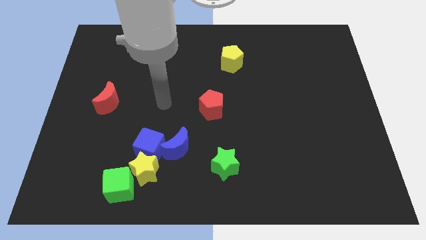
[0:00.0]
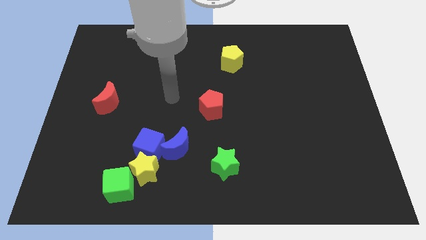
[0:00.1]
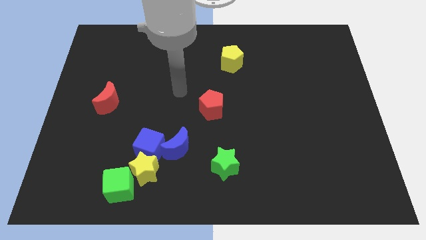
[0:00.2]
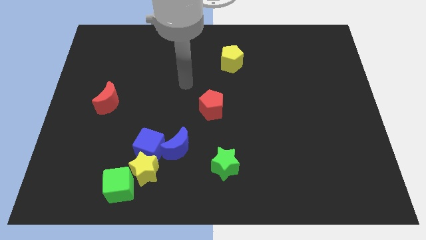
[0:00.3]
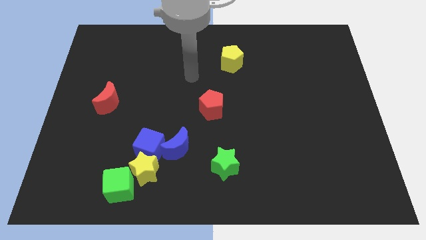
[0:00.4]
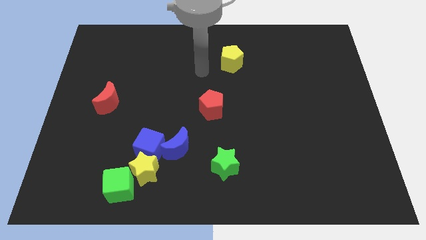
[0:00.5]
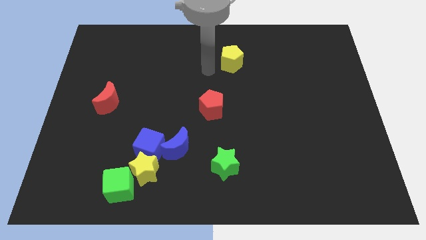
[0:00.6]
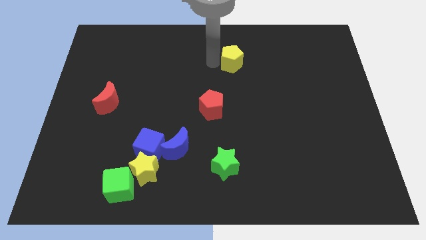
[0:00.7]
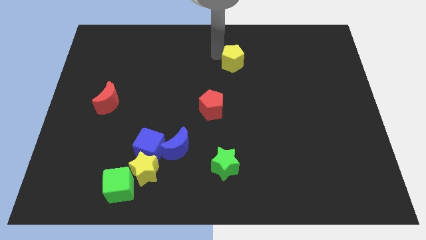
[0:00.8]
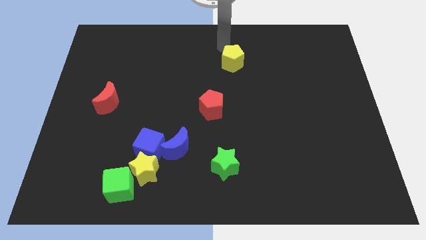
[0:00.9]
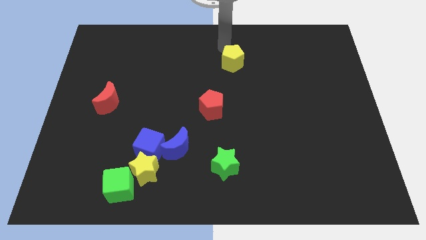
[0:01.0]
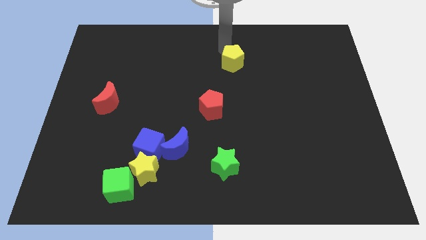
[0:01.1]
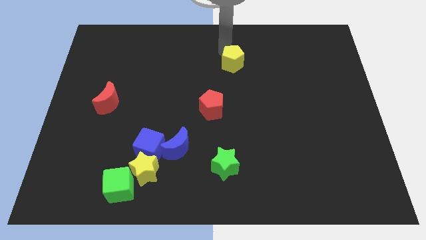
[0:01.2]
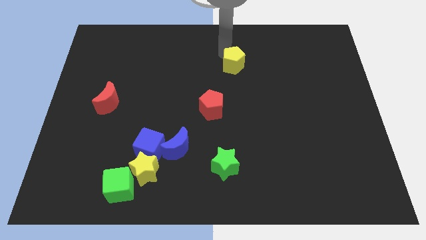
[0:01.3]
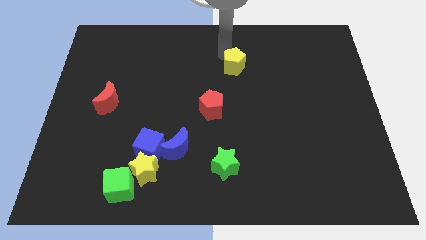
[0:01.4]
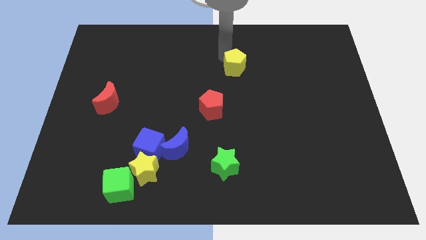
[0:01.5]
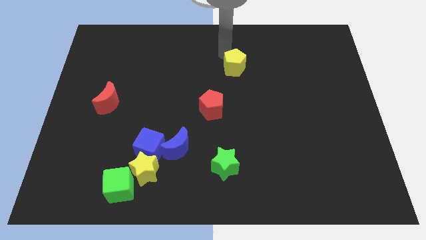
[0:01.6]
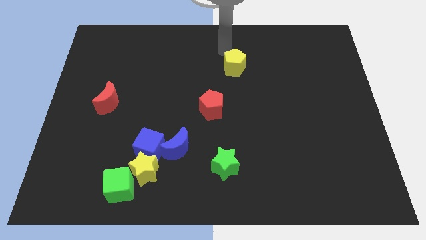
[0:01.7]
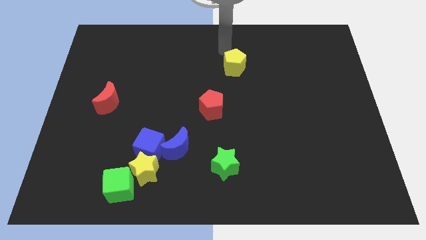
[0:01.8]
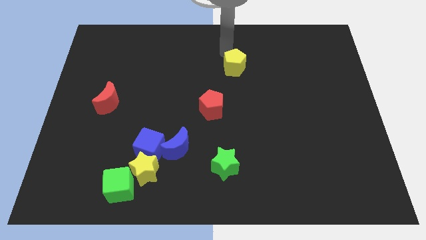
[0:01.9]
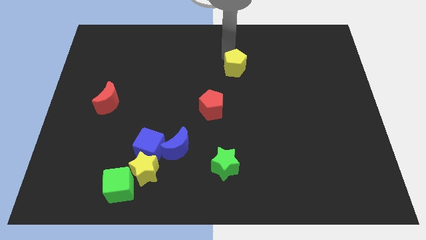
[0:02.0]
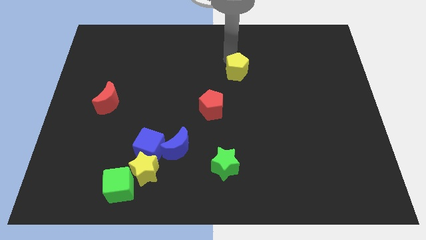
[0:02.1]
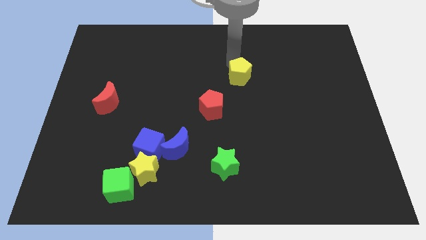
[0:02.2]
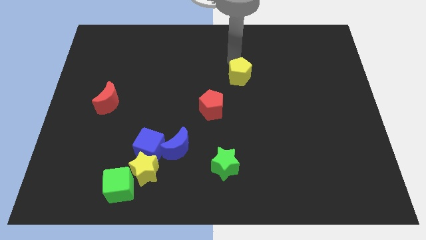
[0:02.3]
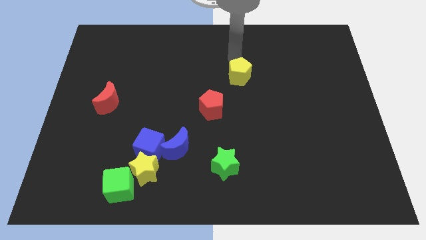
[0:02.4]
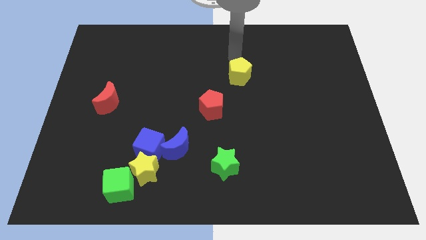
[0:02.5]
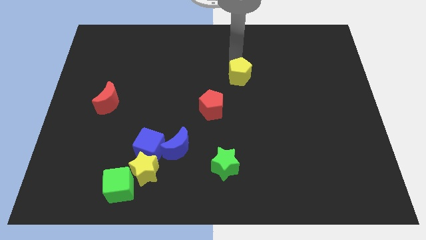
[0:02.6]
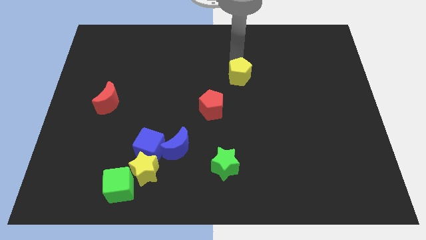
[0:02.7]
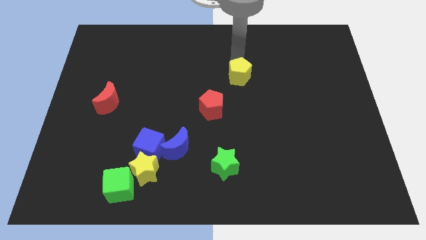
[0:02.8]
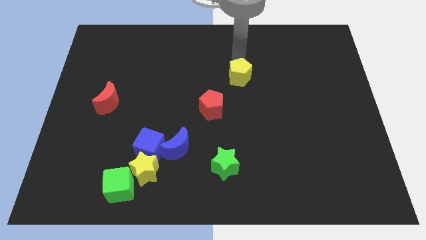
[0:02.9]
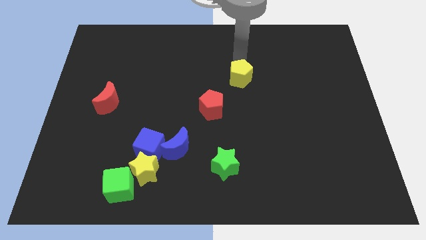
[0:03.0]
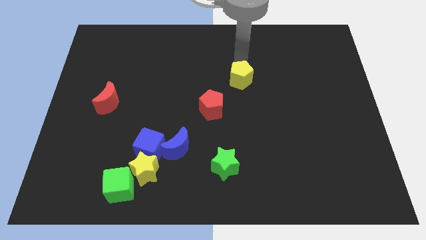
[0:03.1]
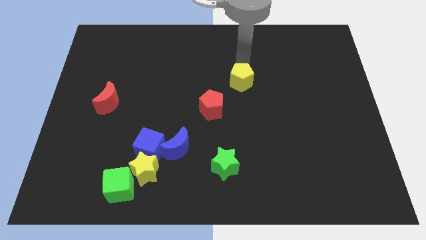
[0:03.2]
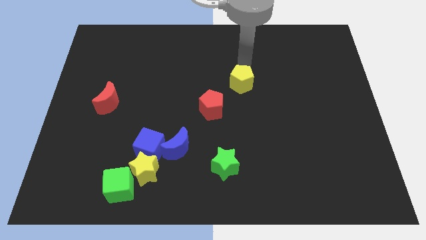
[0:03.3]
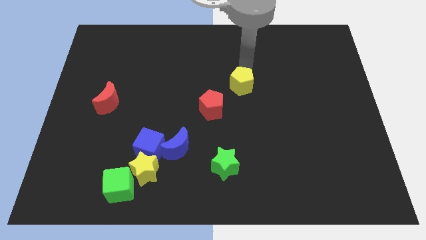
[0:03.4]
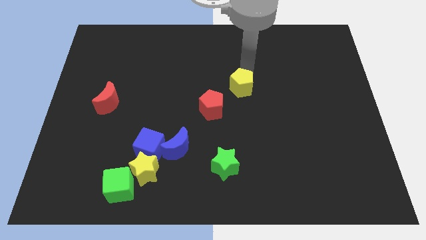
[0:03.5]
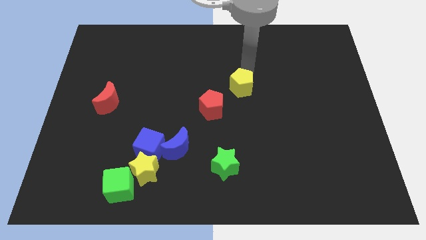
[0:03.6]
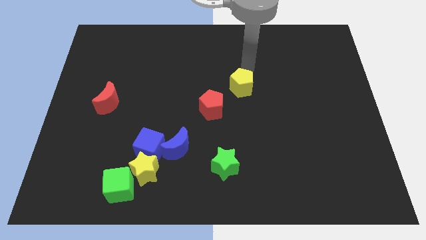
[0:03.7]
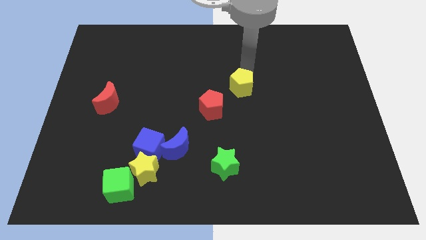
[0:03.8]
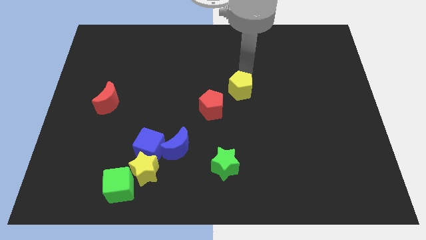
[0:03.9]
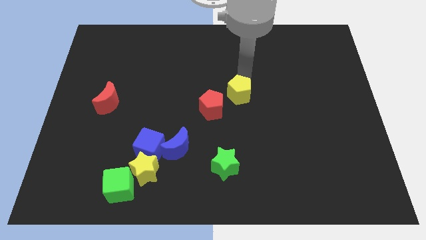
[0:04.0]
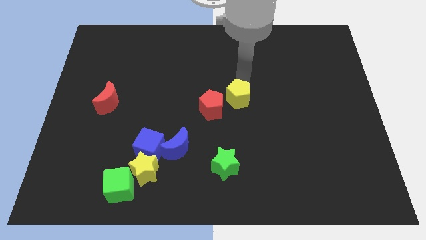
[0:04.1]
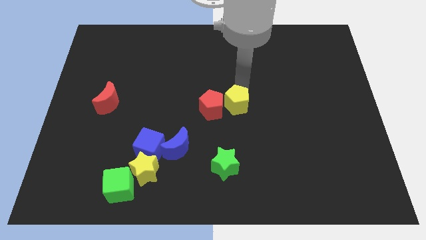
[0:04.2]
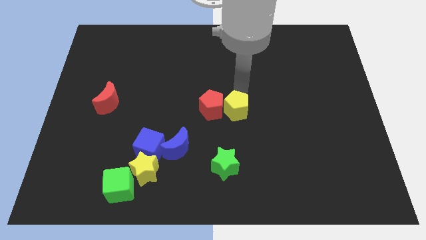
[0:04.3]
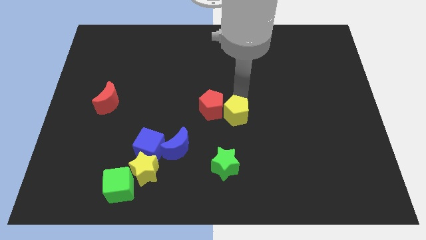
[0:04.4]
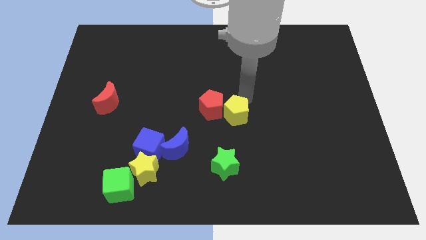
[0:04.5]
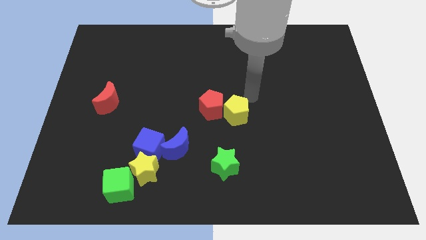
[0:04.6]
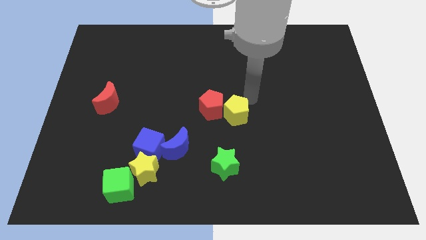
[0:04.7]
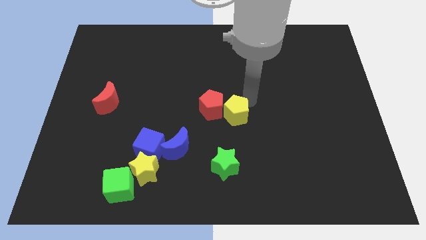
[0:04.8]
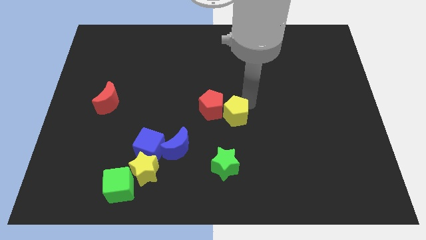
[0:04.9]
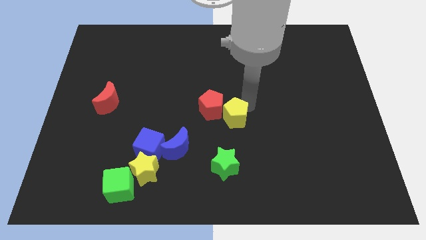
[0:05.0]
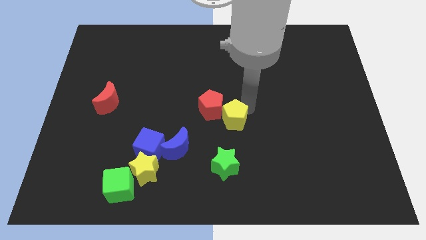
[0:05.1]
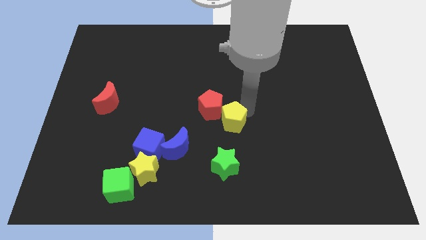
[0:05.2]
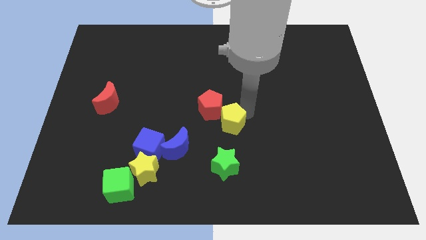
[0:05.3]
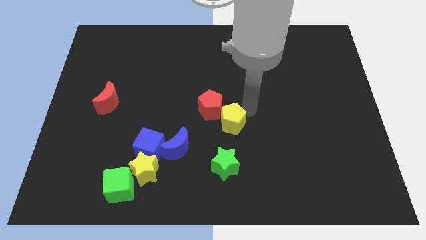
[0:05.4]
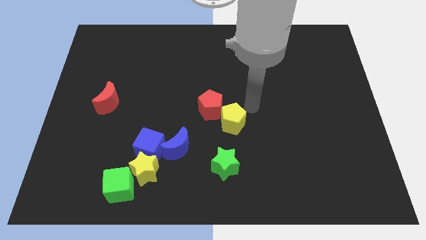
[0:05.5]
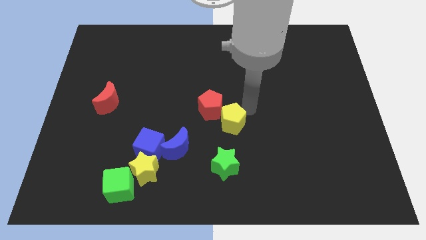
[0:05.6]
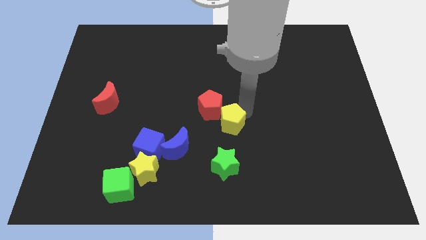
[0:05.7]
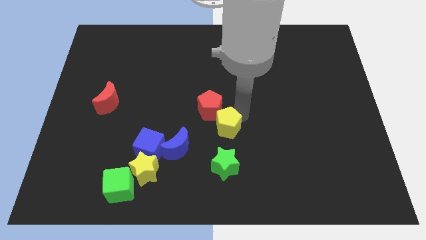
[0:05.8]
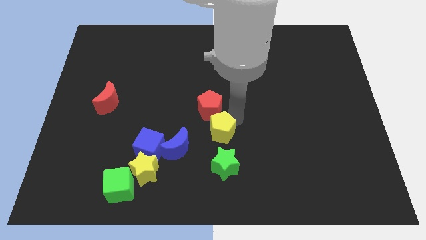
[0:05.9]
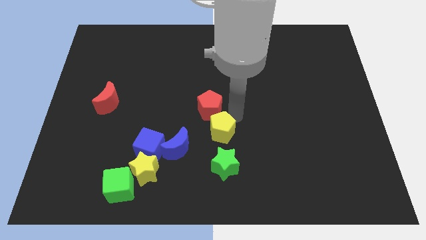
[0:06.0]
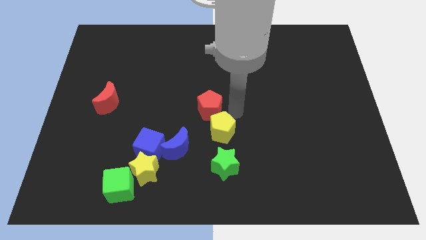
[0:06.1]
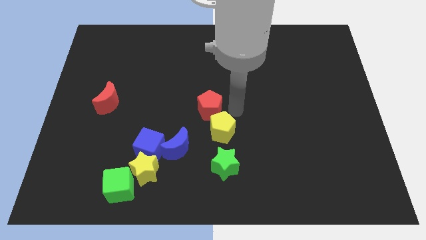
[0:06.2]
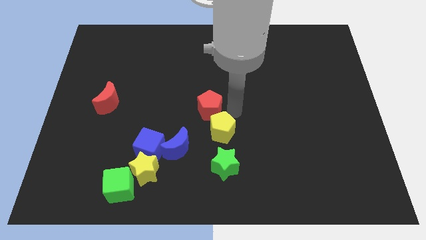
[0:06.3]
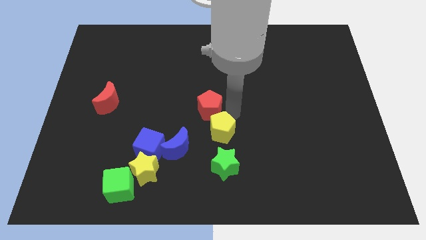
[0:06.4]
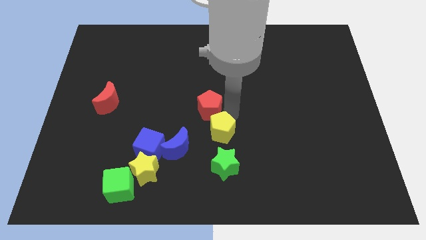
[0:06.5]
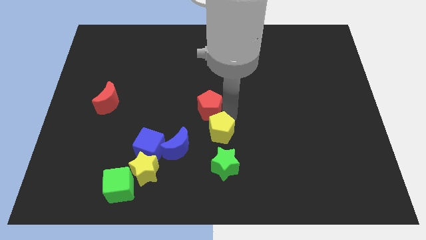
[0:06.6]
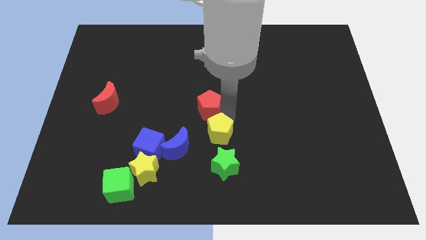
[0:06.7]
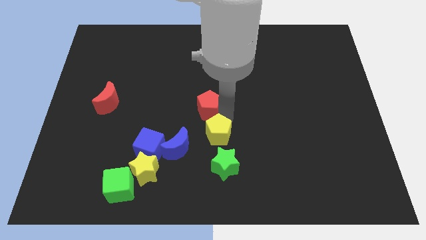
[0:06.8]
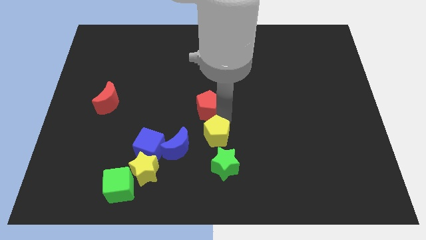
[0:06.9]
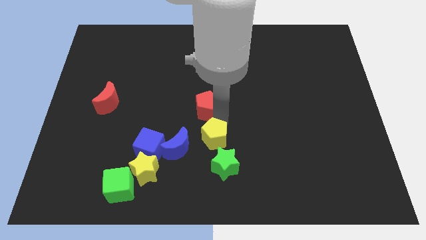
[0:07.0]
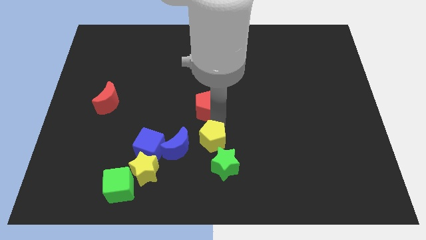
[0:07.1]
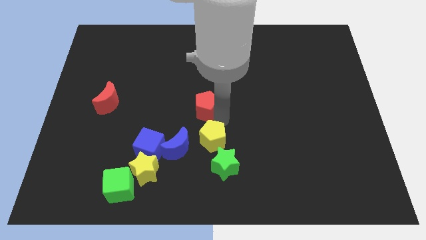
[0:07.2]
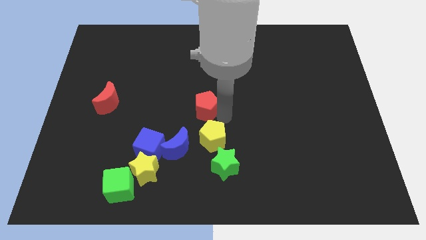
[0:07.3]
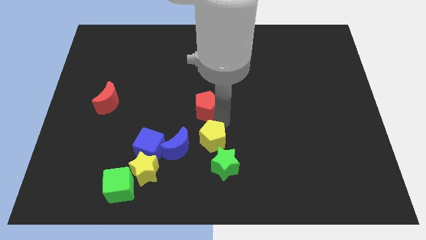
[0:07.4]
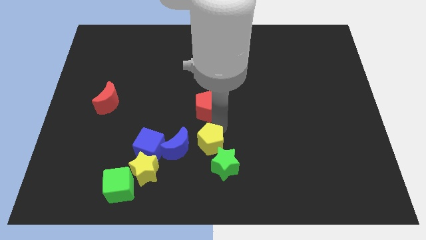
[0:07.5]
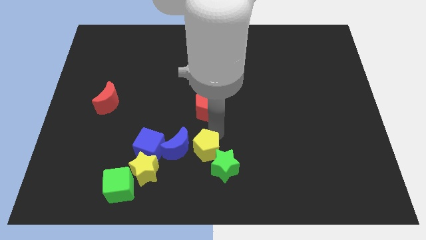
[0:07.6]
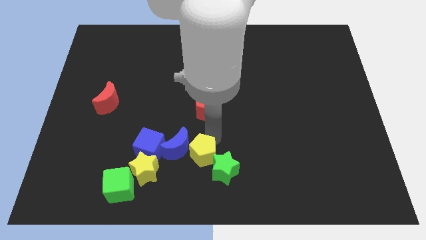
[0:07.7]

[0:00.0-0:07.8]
push the yellow pentagon to the bottom
